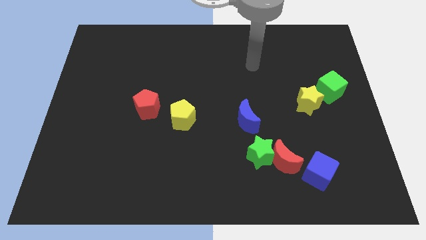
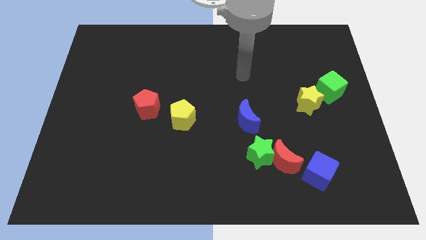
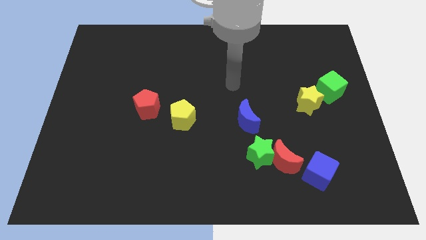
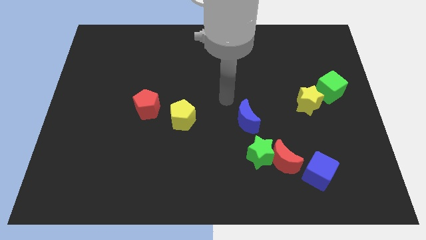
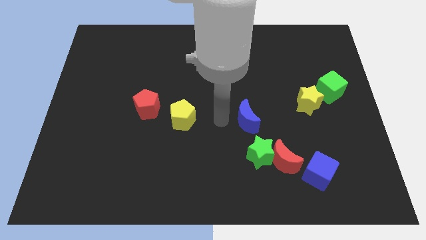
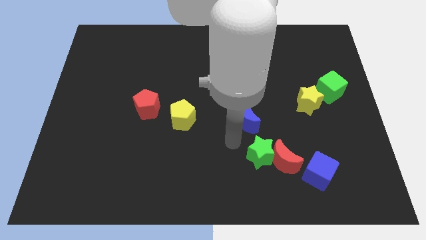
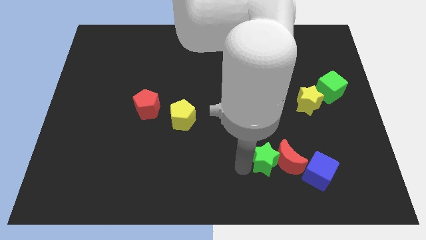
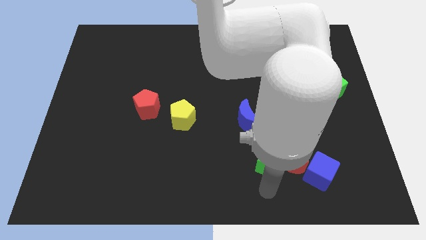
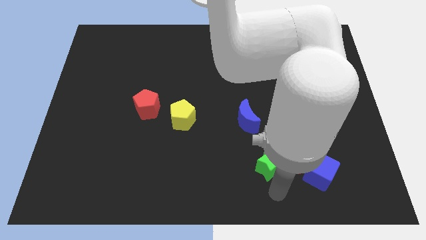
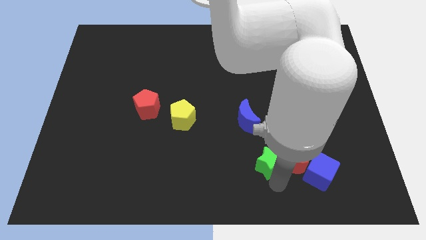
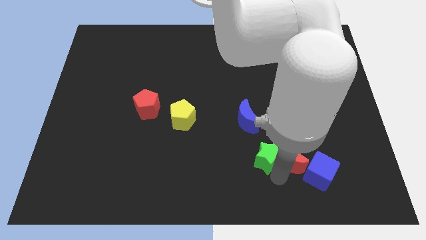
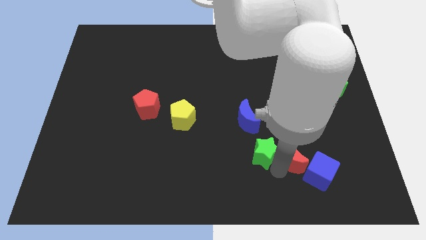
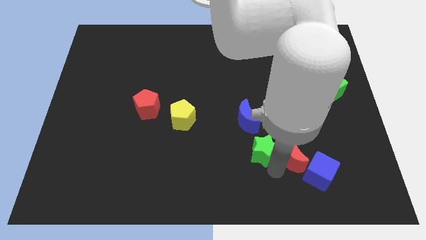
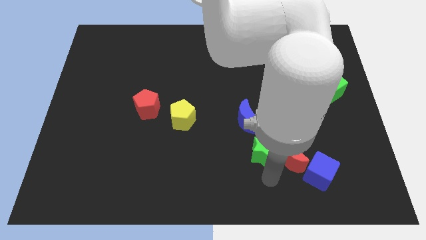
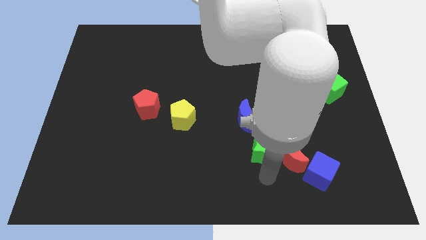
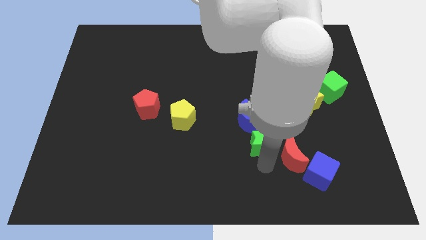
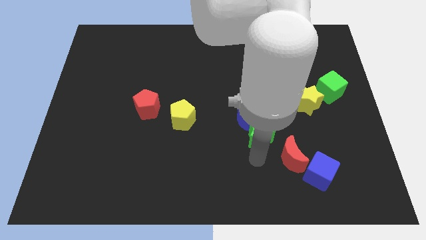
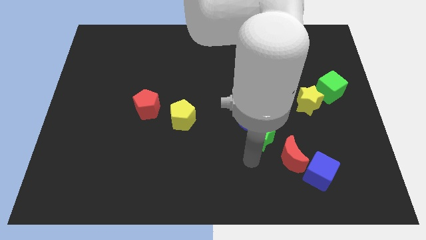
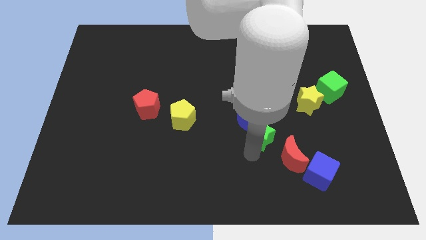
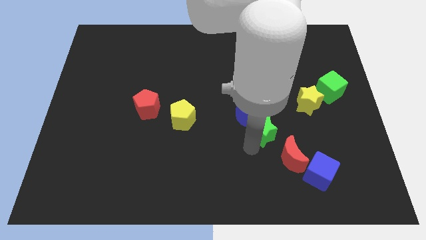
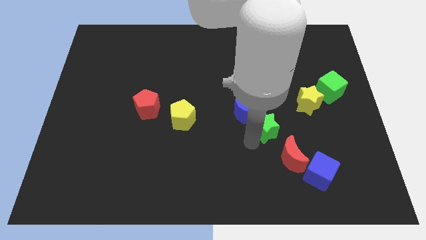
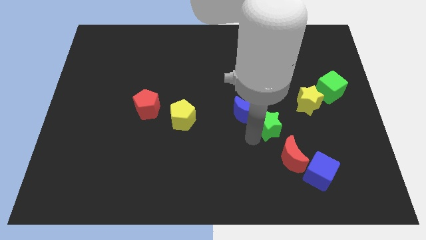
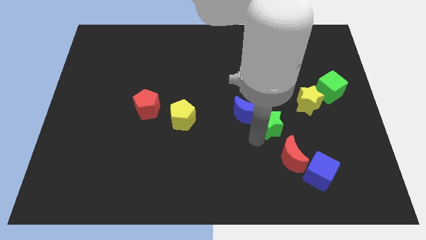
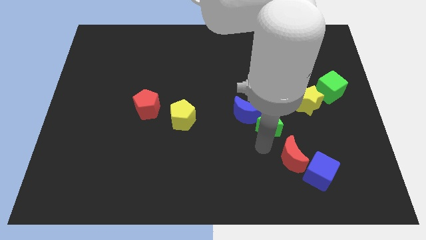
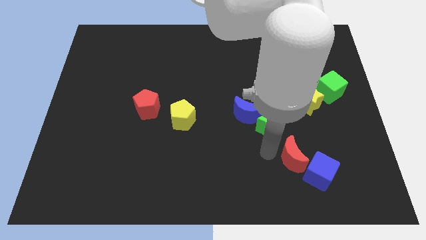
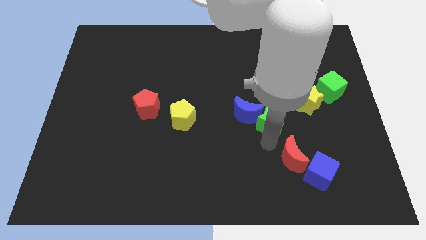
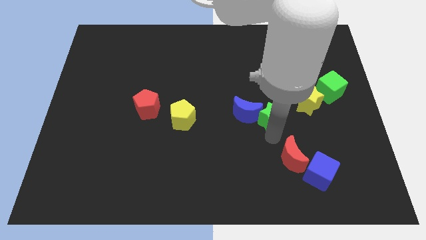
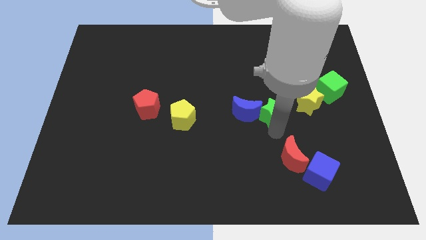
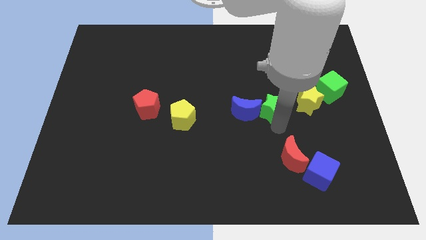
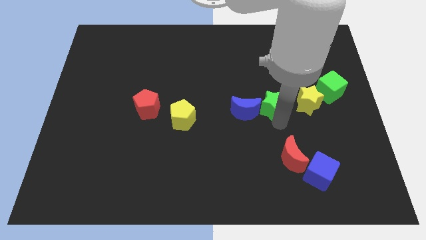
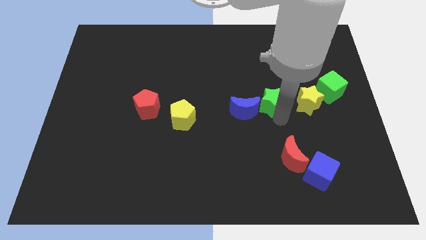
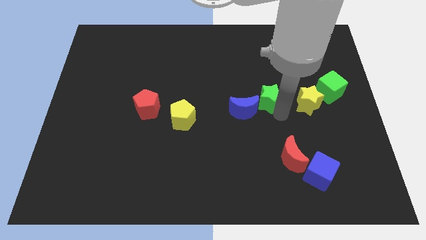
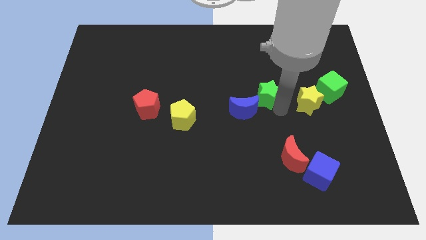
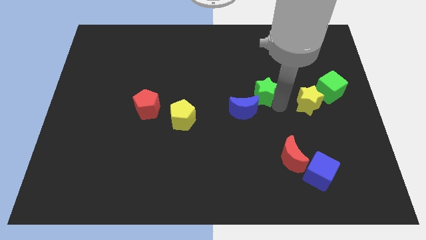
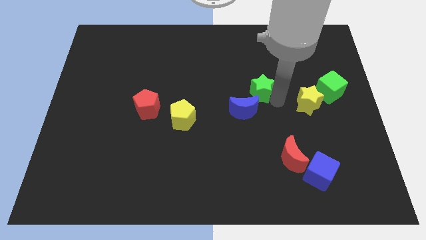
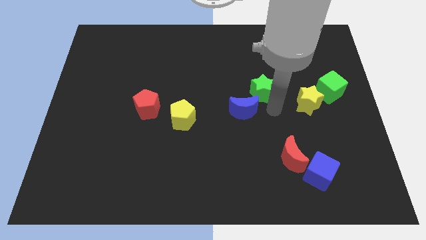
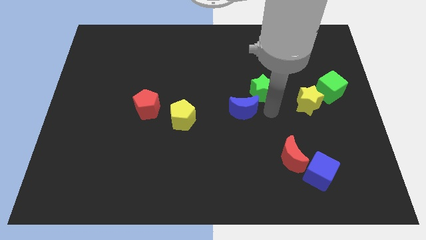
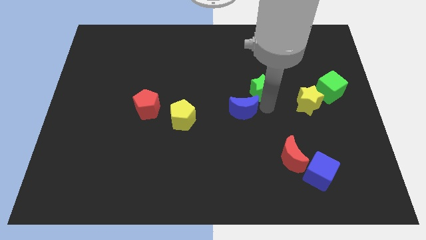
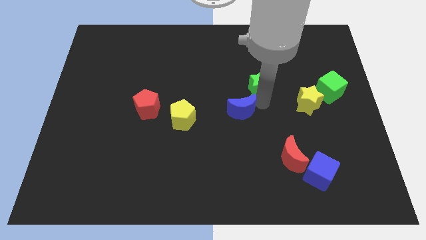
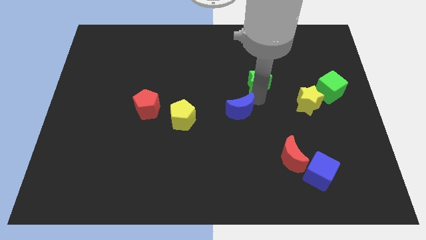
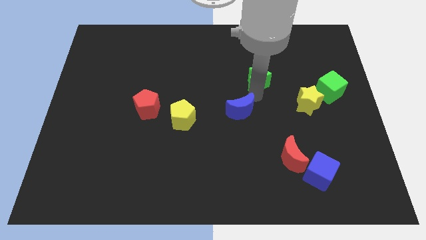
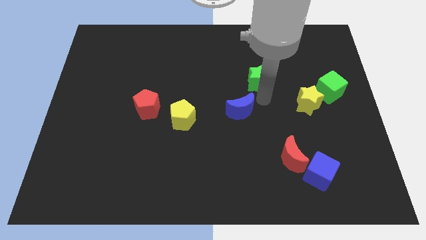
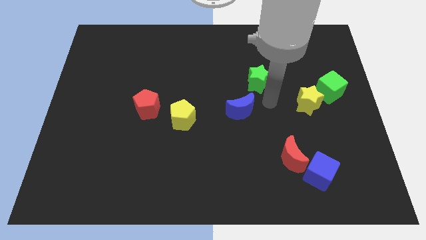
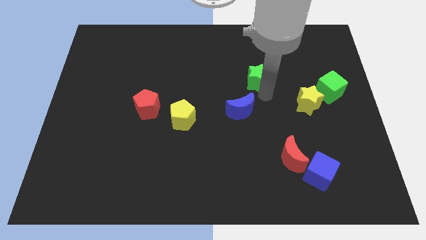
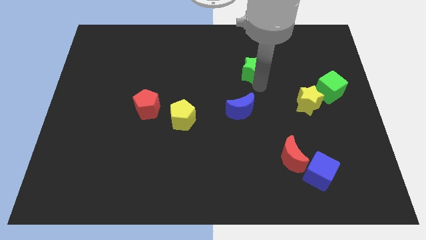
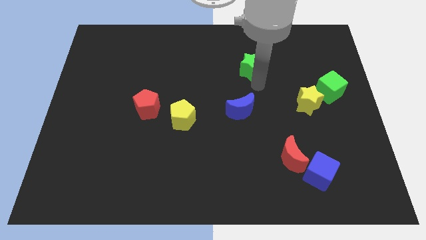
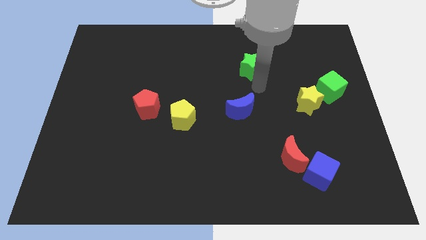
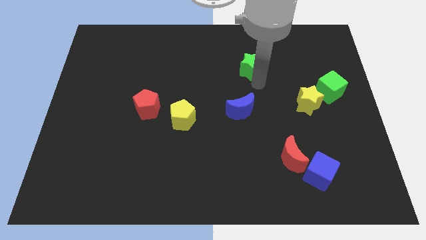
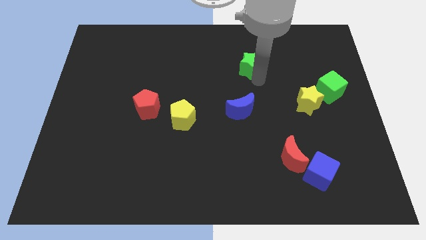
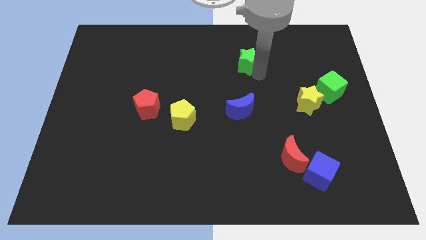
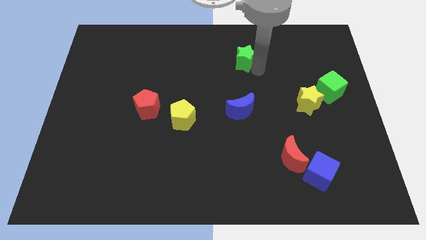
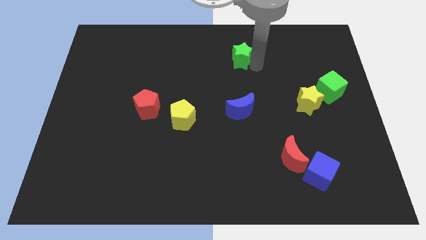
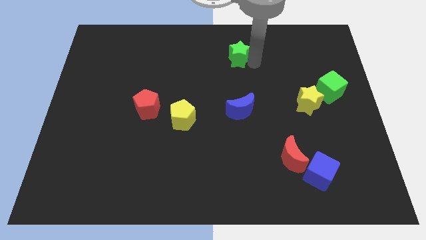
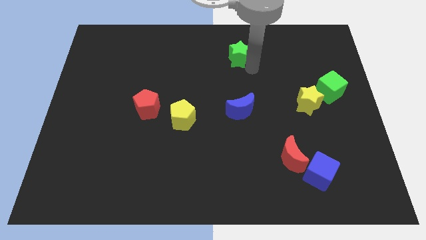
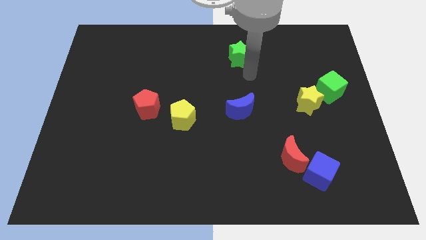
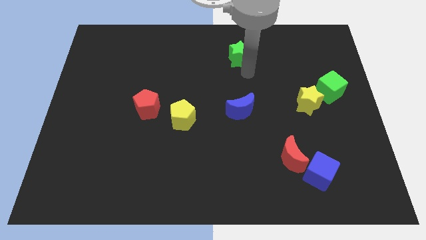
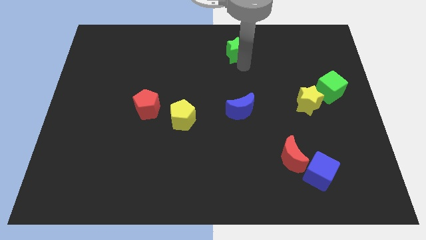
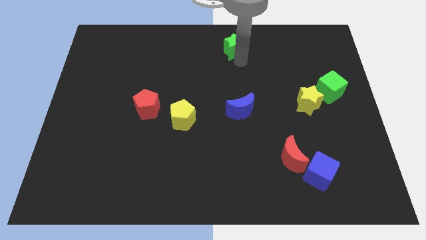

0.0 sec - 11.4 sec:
put the green star to the top

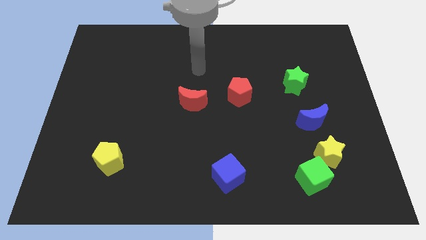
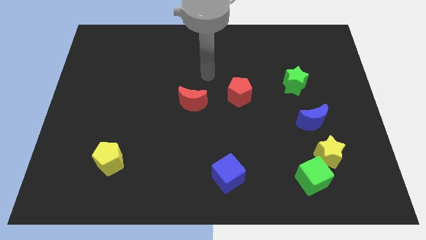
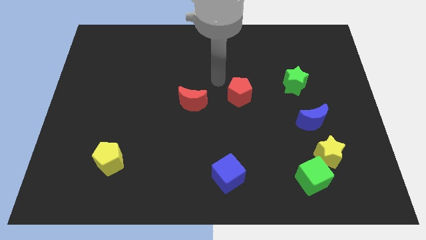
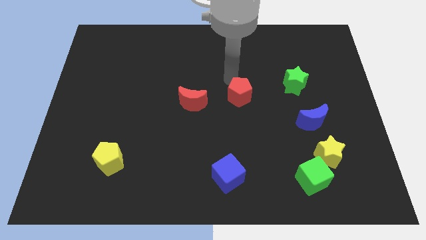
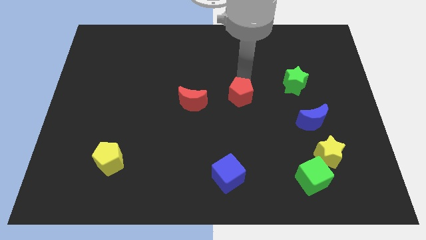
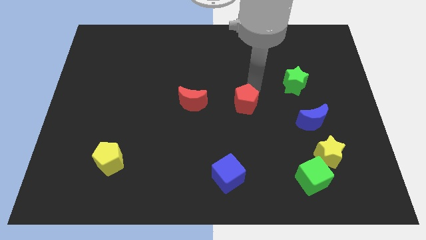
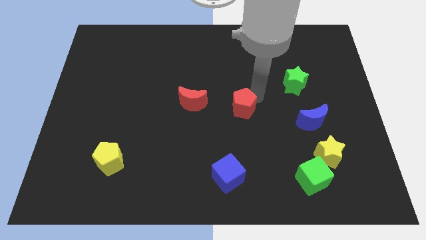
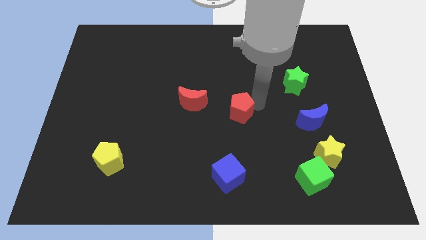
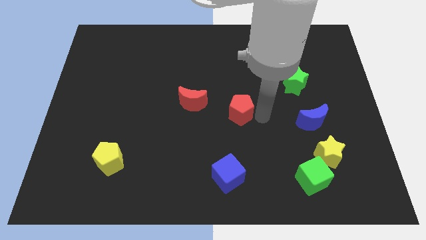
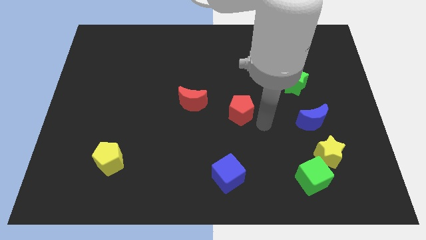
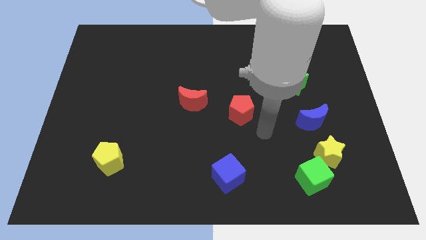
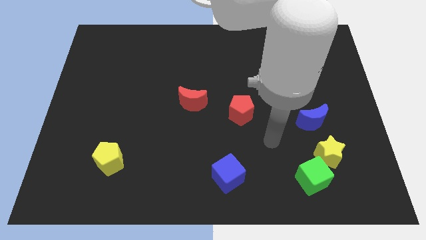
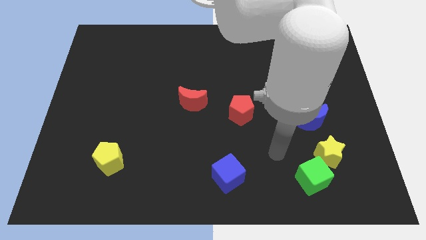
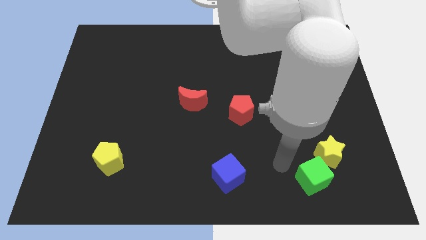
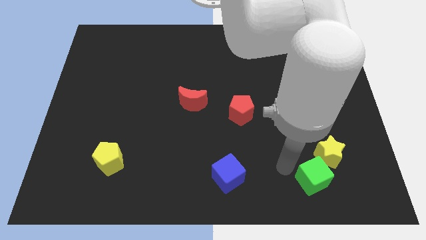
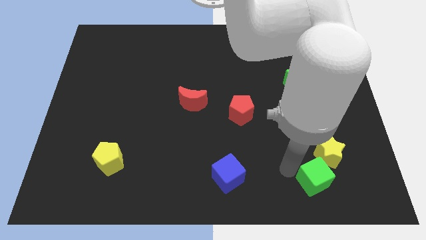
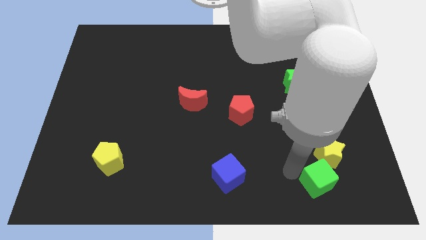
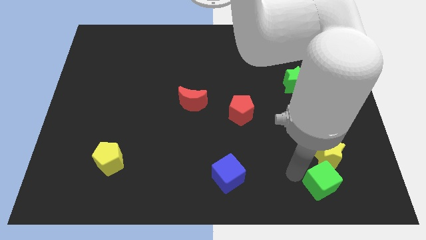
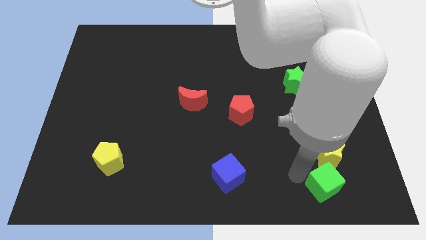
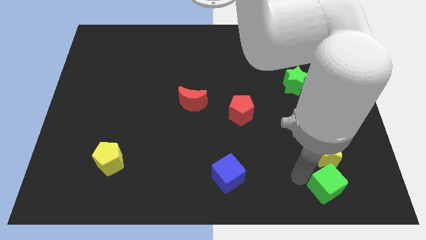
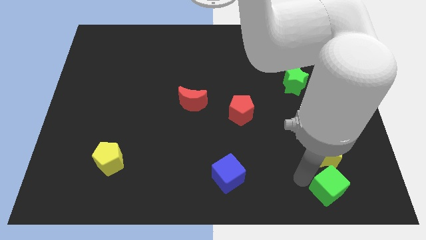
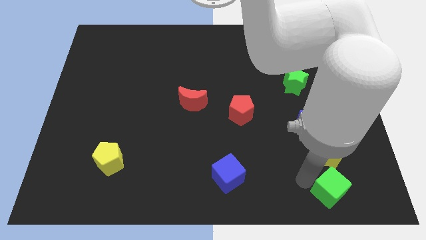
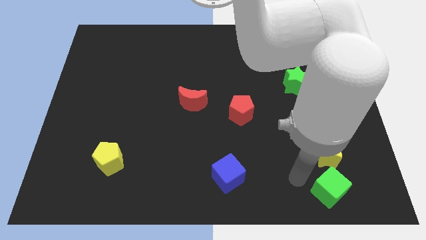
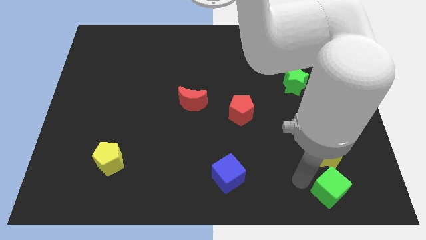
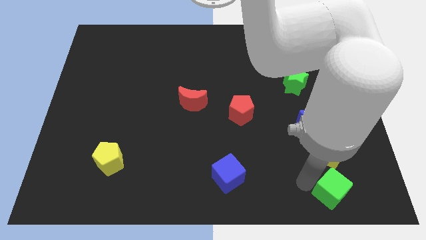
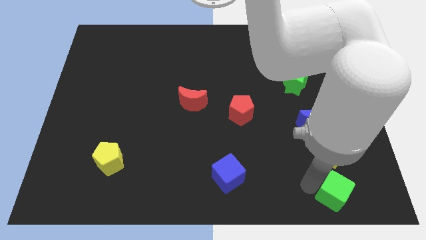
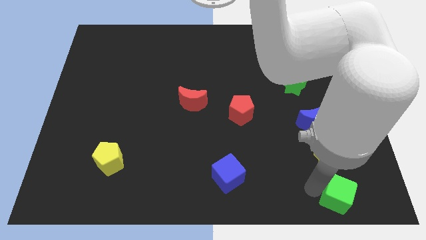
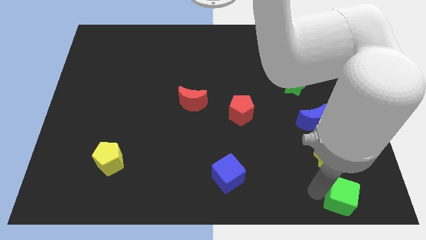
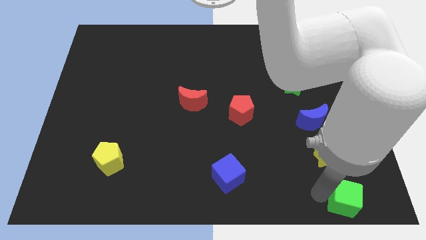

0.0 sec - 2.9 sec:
put the green cube to the lower right corner
